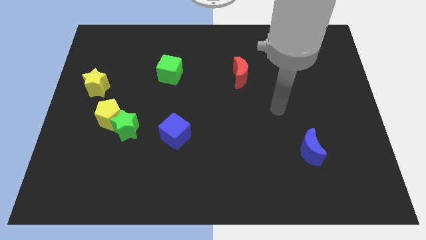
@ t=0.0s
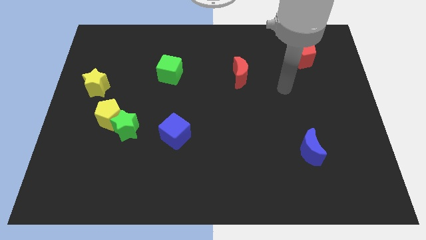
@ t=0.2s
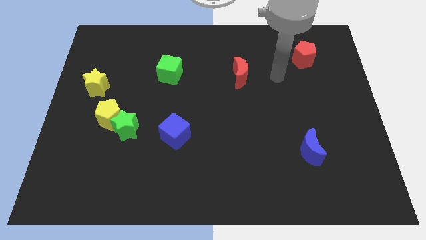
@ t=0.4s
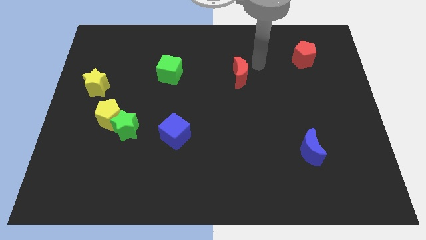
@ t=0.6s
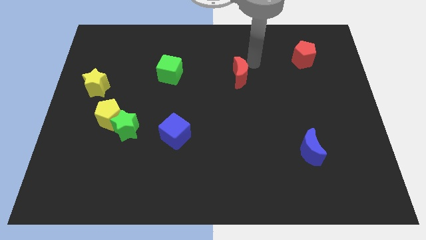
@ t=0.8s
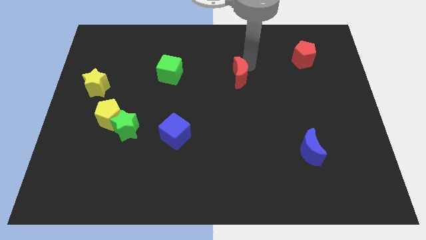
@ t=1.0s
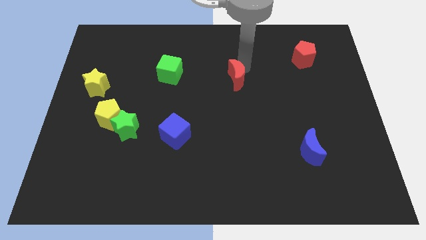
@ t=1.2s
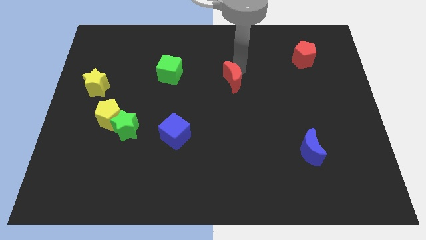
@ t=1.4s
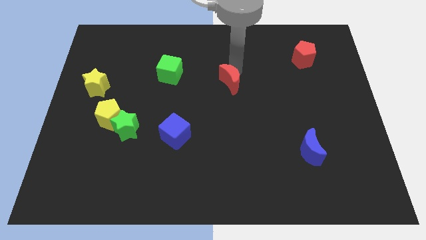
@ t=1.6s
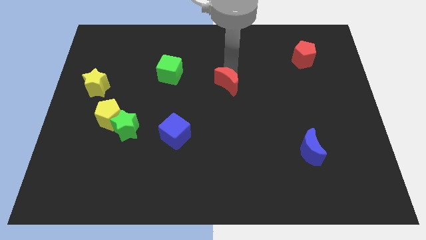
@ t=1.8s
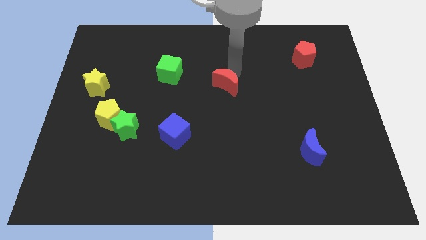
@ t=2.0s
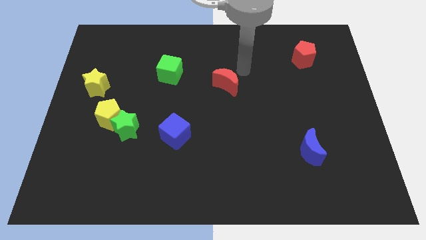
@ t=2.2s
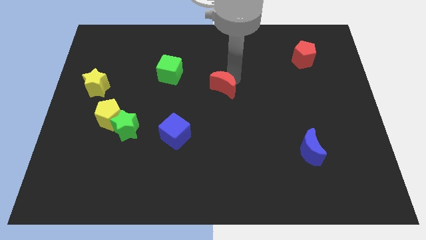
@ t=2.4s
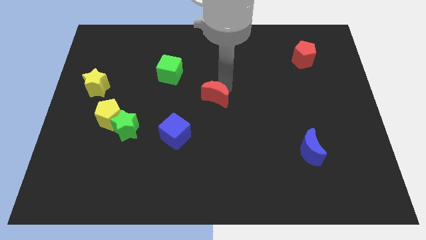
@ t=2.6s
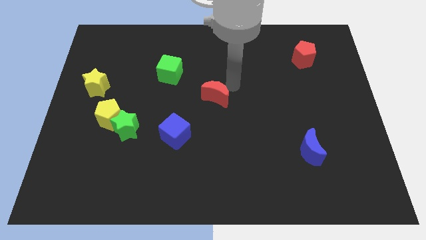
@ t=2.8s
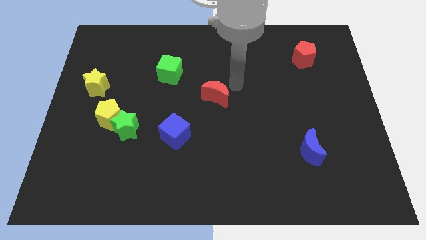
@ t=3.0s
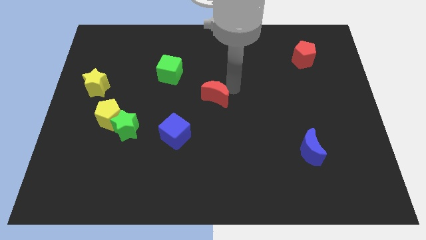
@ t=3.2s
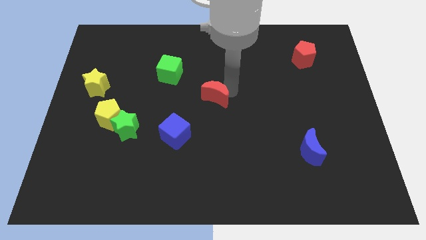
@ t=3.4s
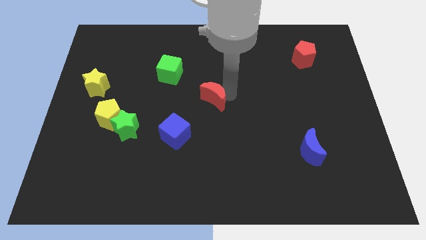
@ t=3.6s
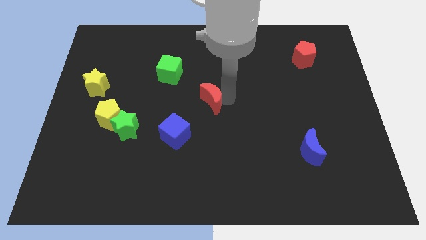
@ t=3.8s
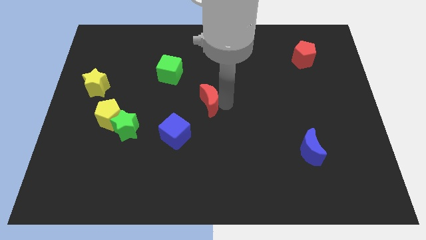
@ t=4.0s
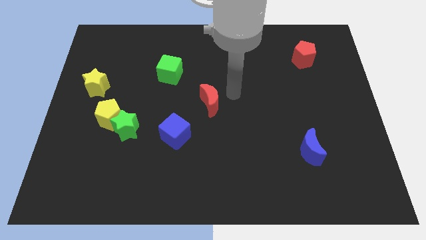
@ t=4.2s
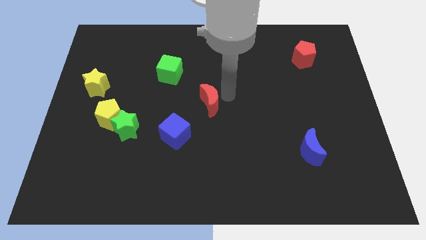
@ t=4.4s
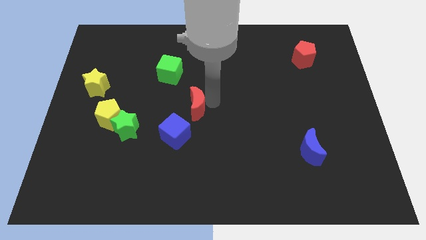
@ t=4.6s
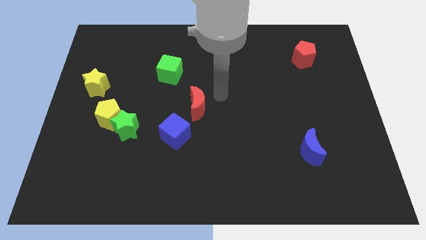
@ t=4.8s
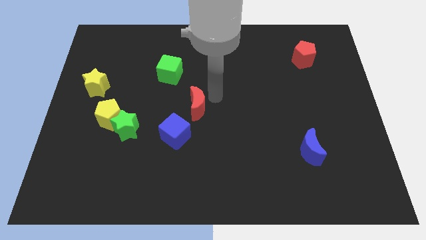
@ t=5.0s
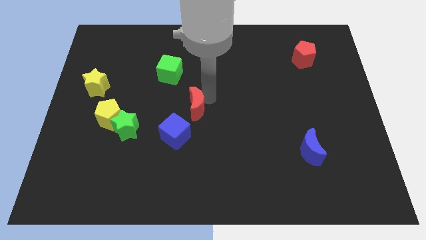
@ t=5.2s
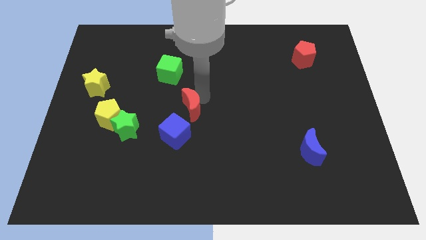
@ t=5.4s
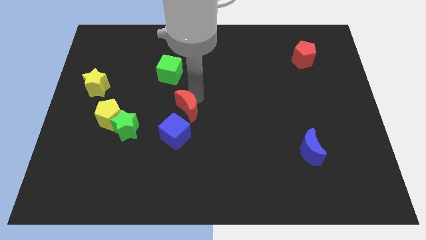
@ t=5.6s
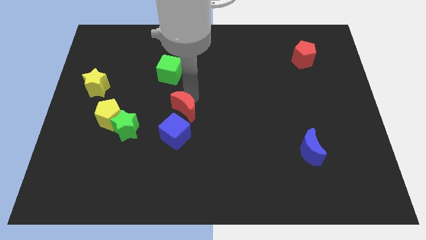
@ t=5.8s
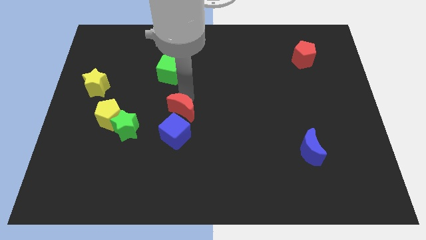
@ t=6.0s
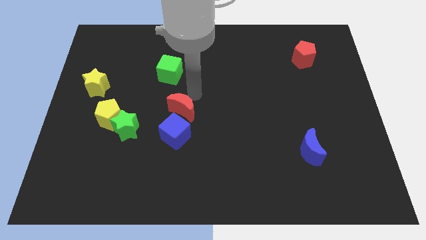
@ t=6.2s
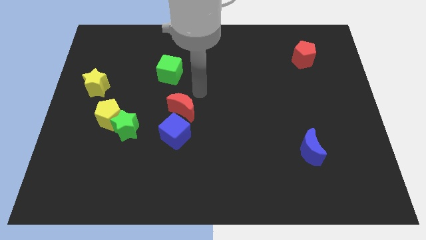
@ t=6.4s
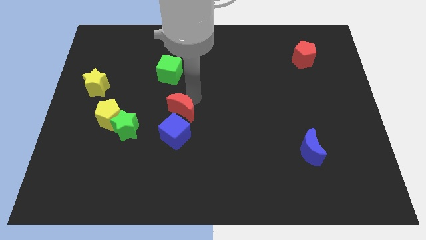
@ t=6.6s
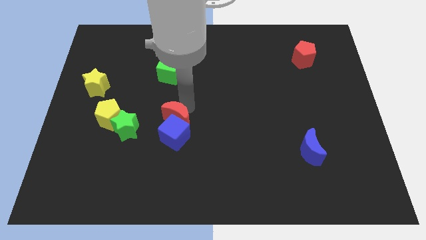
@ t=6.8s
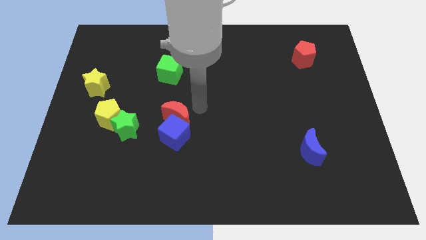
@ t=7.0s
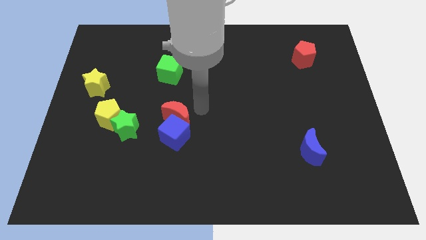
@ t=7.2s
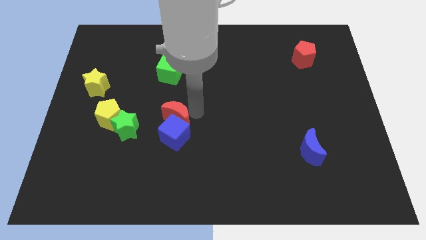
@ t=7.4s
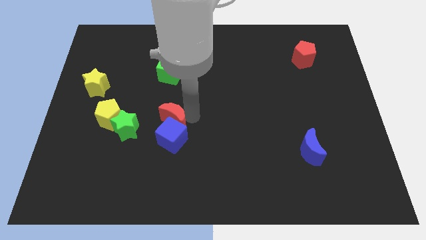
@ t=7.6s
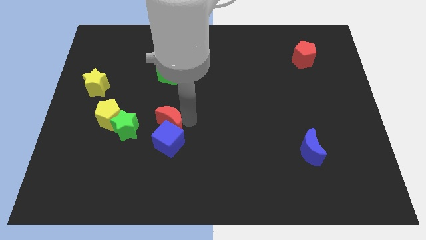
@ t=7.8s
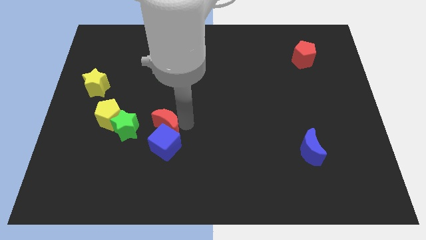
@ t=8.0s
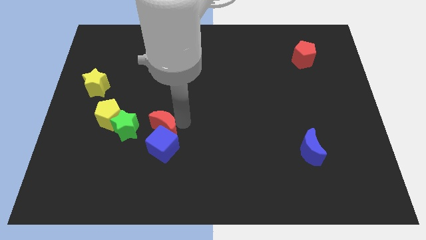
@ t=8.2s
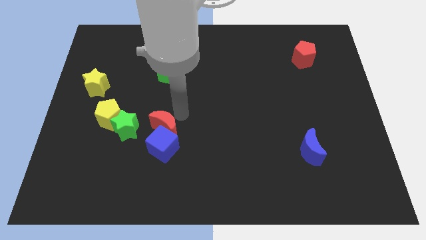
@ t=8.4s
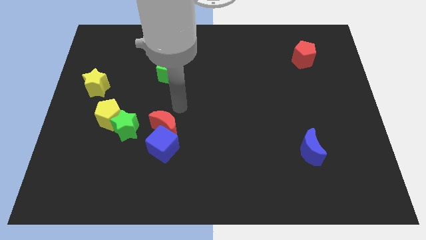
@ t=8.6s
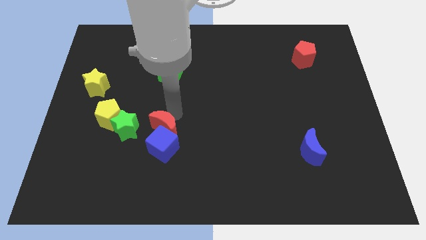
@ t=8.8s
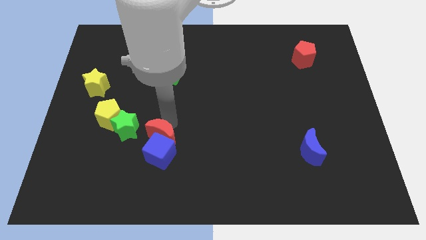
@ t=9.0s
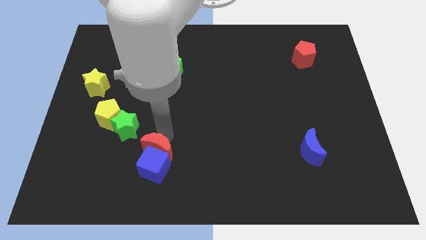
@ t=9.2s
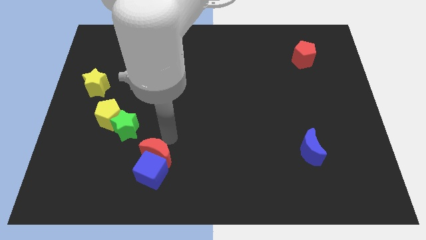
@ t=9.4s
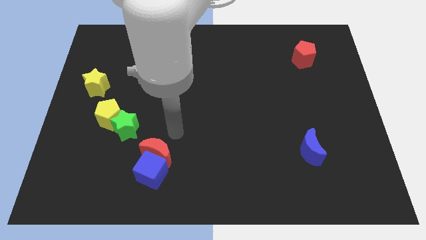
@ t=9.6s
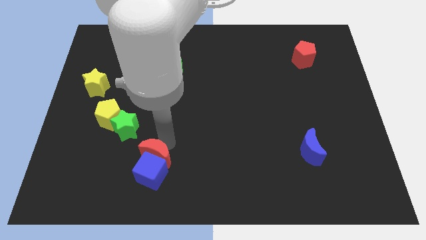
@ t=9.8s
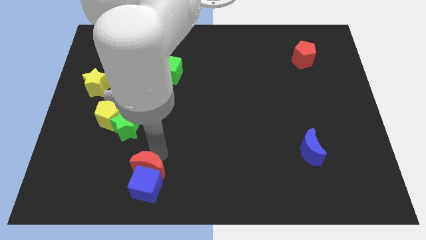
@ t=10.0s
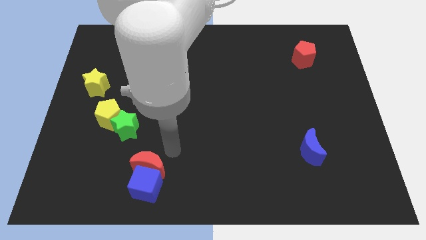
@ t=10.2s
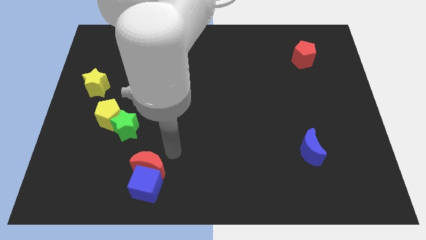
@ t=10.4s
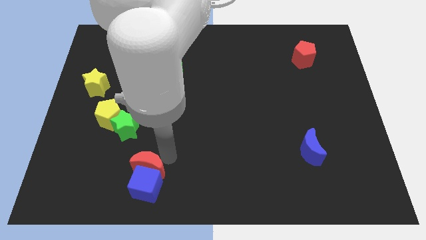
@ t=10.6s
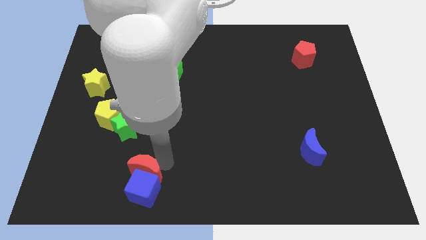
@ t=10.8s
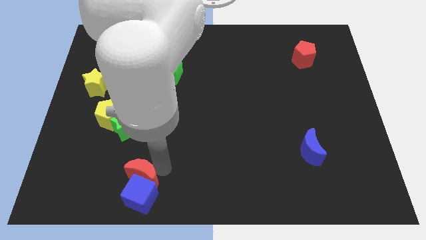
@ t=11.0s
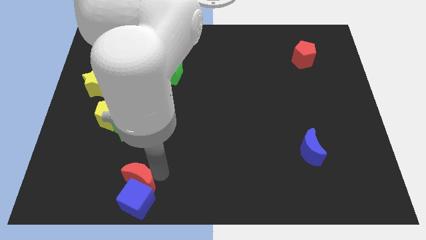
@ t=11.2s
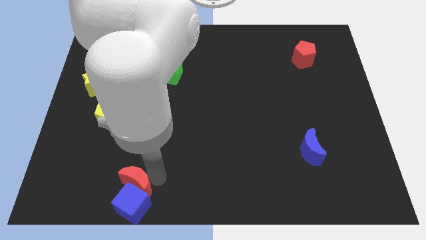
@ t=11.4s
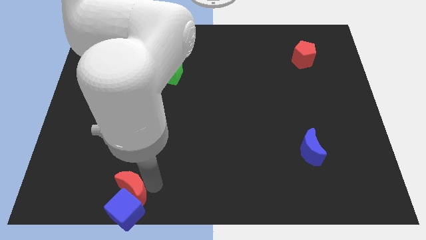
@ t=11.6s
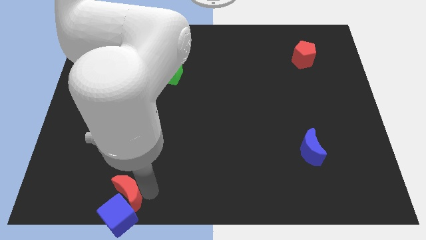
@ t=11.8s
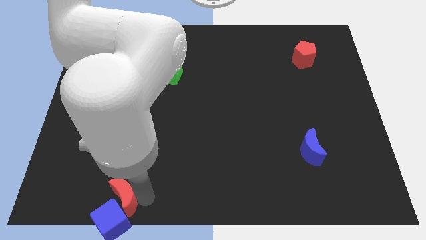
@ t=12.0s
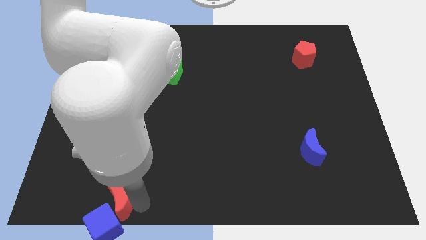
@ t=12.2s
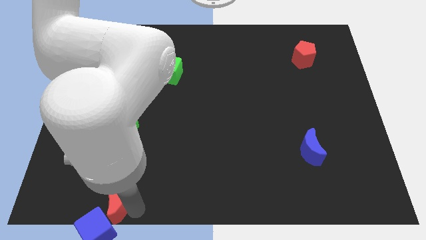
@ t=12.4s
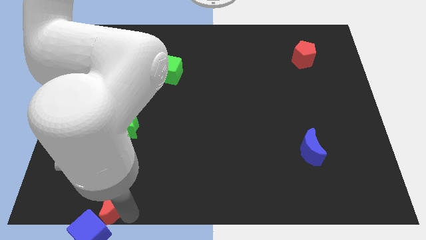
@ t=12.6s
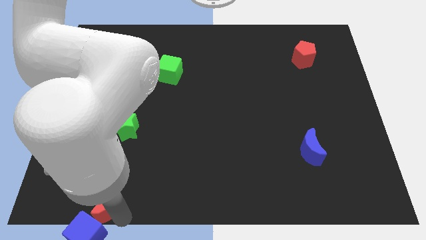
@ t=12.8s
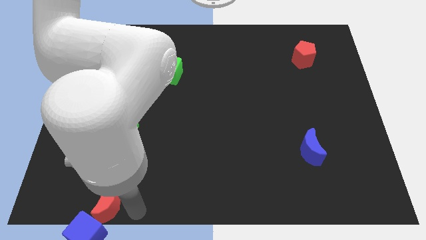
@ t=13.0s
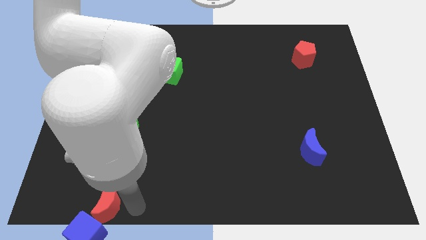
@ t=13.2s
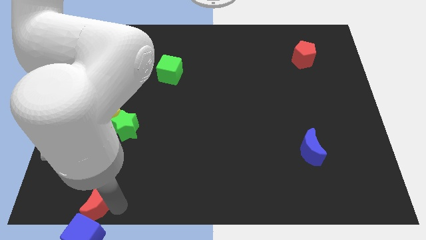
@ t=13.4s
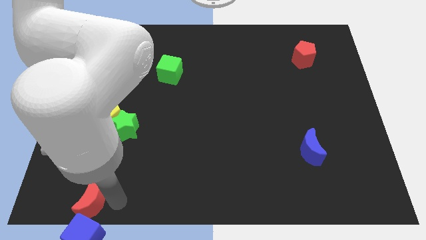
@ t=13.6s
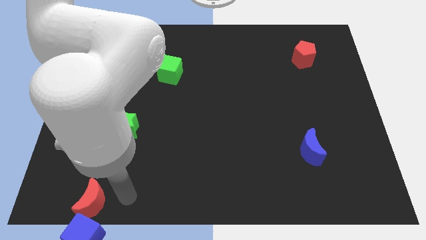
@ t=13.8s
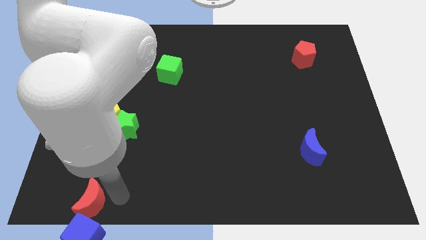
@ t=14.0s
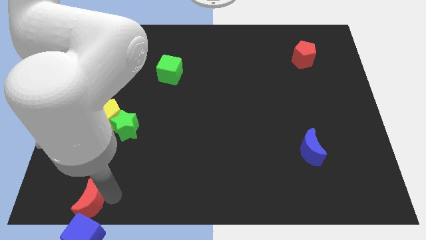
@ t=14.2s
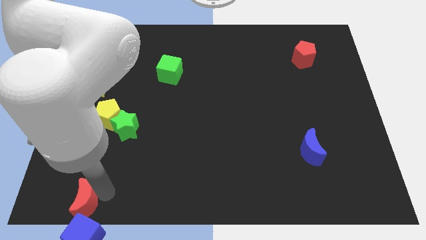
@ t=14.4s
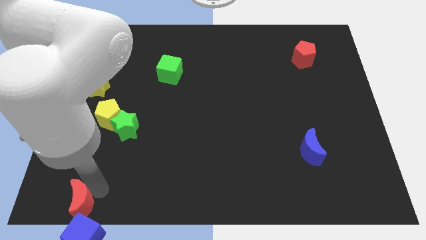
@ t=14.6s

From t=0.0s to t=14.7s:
put the red moon to the lower left corner

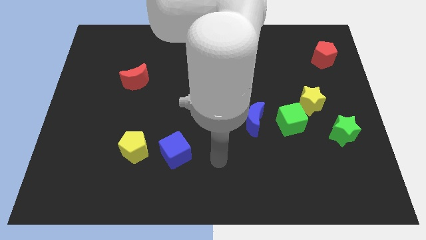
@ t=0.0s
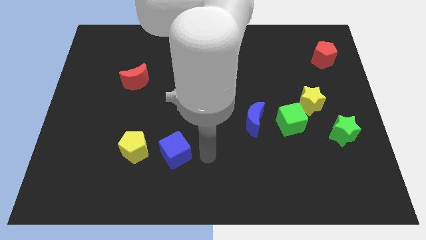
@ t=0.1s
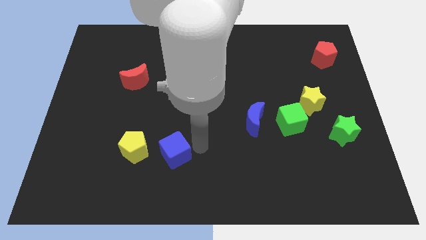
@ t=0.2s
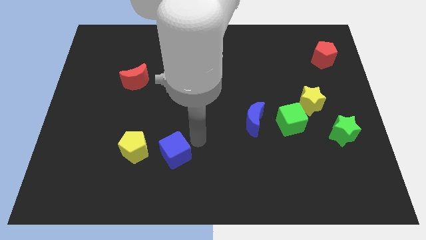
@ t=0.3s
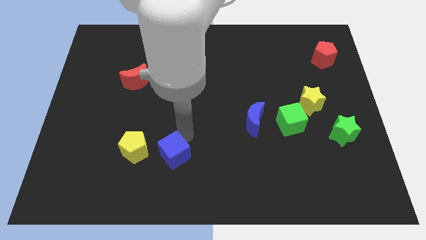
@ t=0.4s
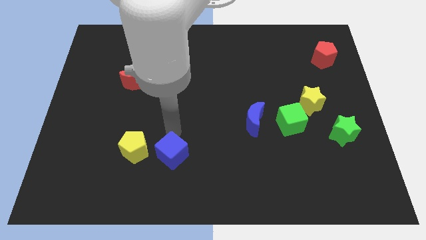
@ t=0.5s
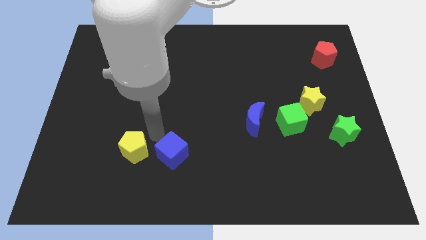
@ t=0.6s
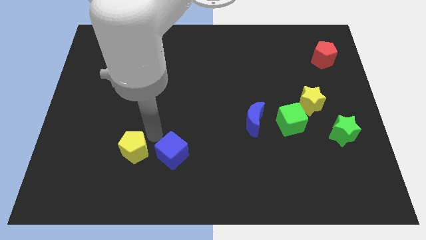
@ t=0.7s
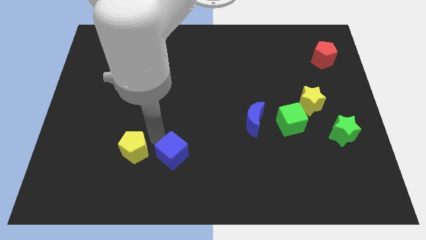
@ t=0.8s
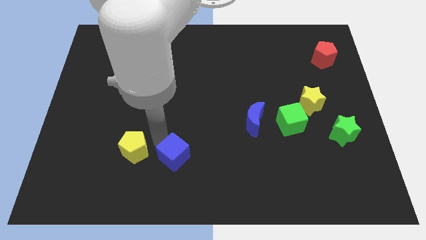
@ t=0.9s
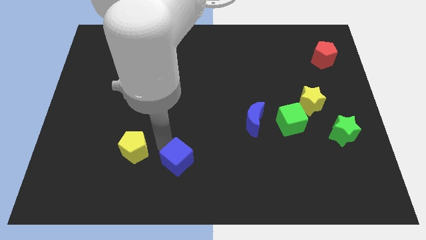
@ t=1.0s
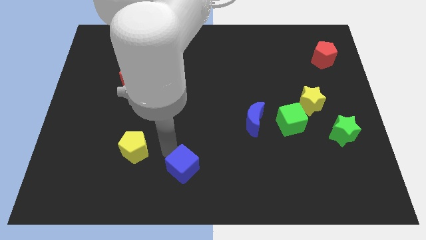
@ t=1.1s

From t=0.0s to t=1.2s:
slide the blue cube to the bottom
